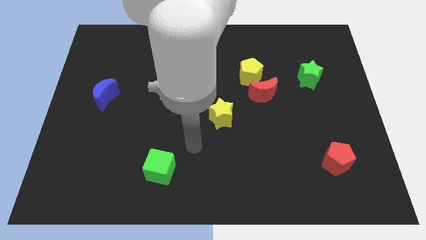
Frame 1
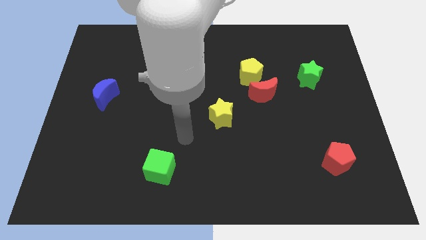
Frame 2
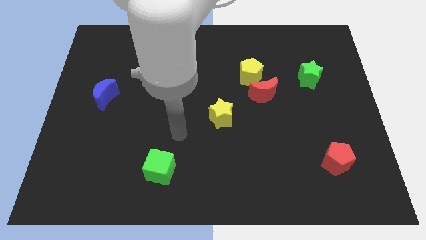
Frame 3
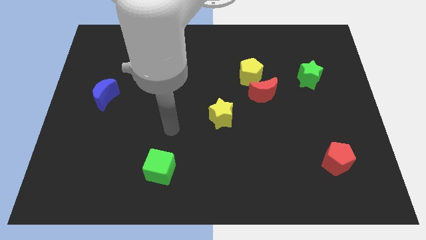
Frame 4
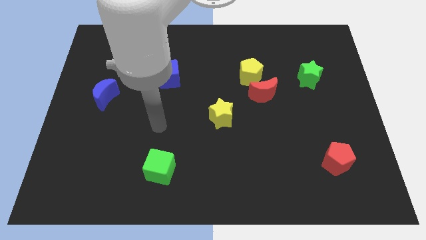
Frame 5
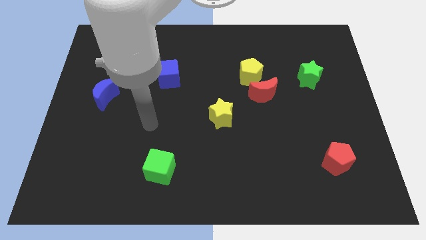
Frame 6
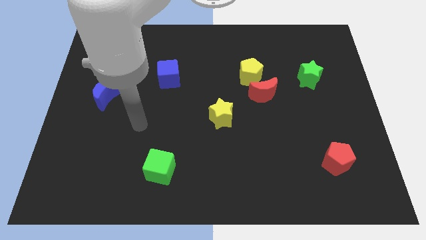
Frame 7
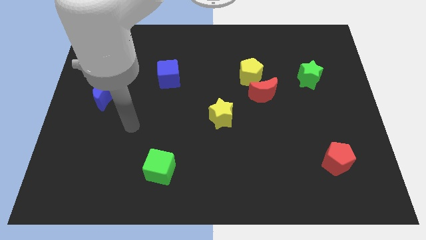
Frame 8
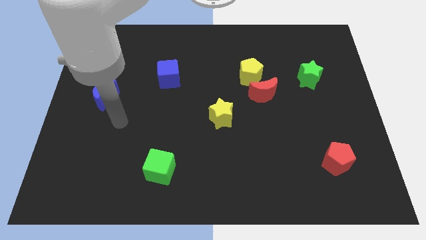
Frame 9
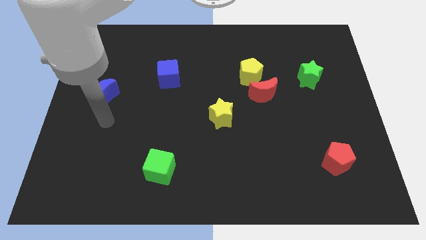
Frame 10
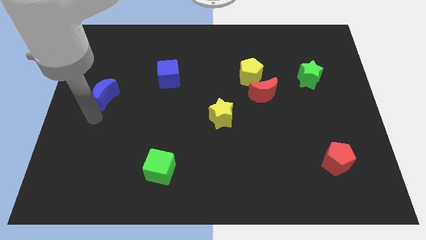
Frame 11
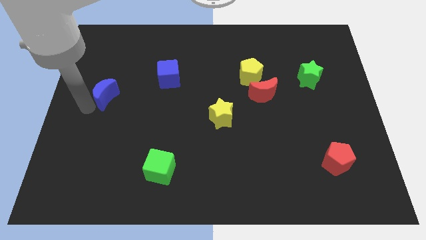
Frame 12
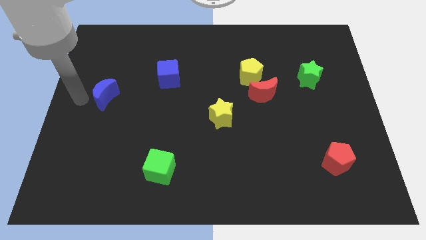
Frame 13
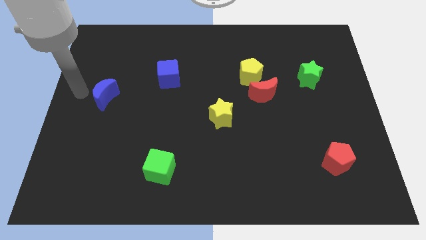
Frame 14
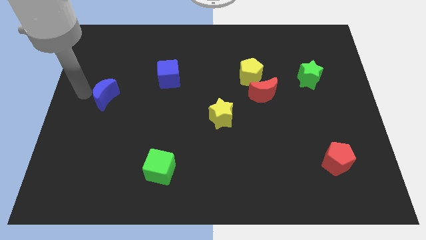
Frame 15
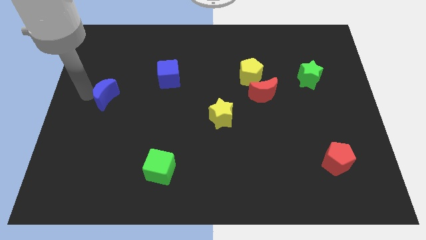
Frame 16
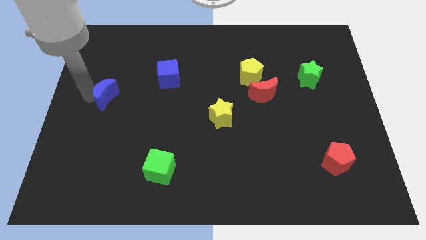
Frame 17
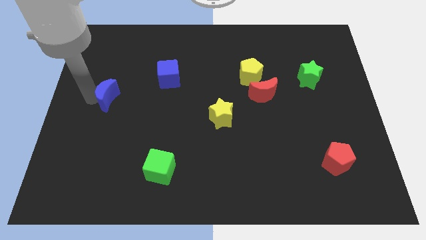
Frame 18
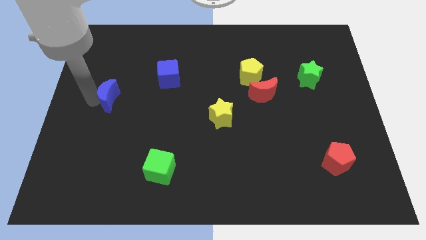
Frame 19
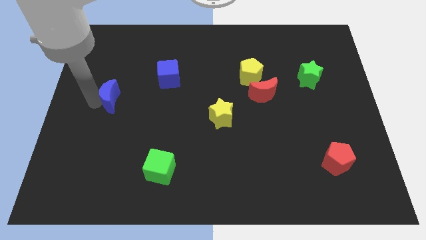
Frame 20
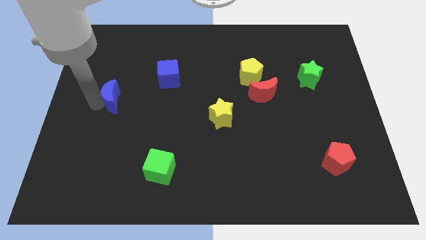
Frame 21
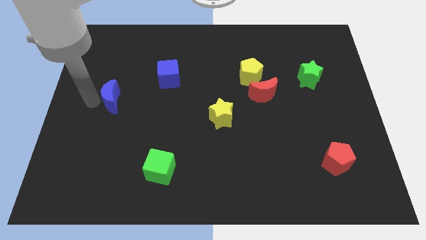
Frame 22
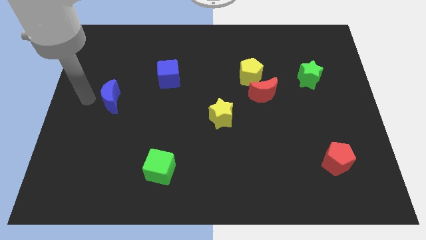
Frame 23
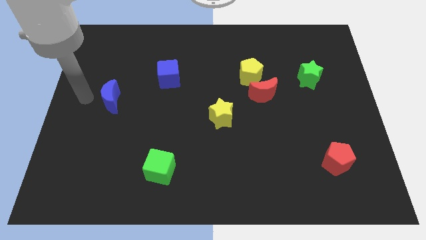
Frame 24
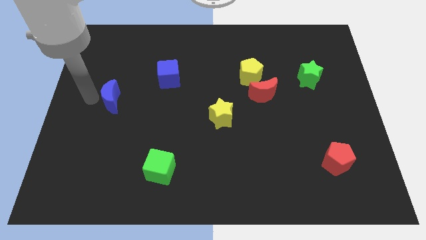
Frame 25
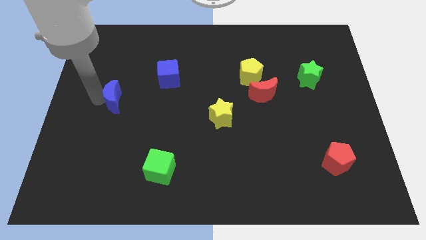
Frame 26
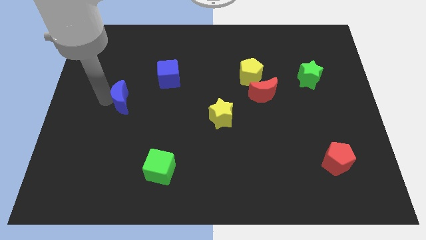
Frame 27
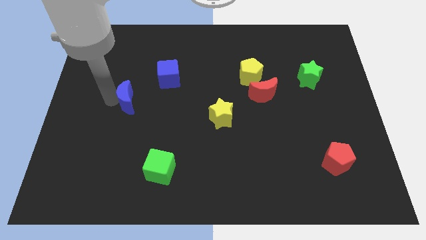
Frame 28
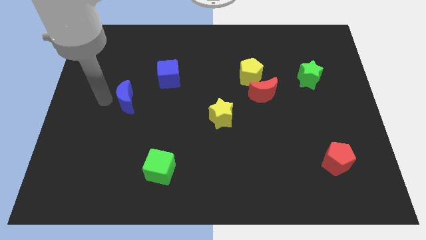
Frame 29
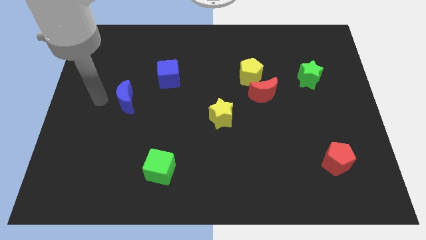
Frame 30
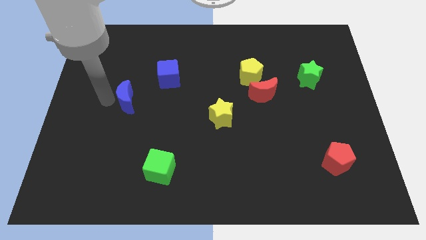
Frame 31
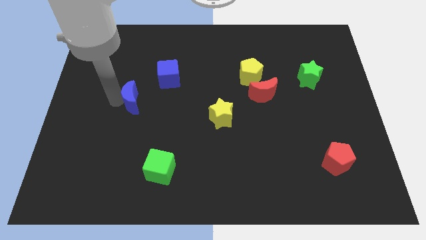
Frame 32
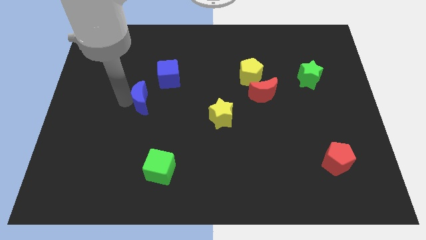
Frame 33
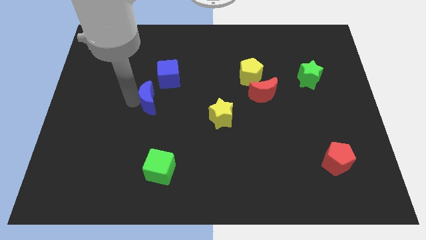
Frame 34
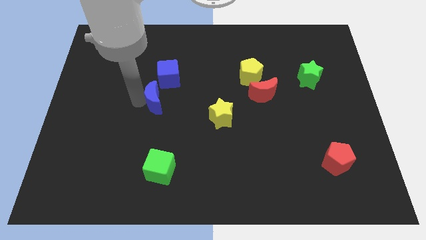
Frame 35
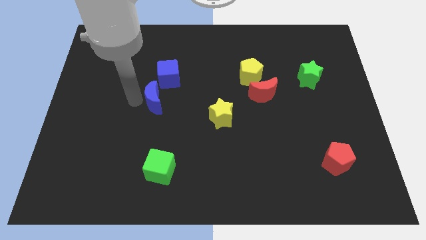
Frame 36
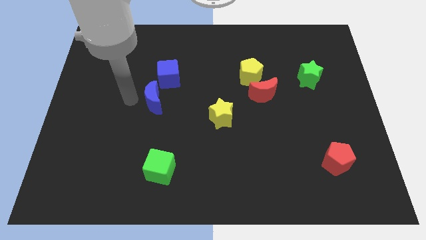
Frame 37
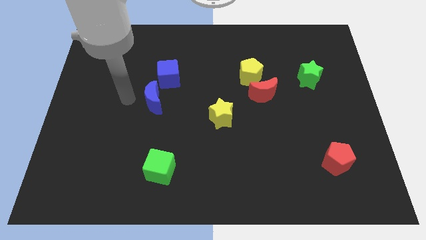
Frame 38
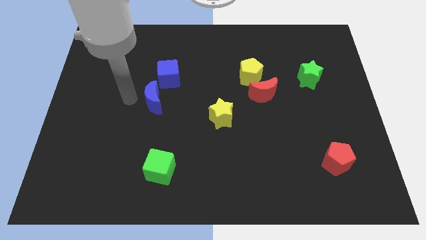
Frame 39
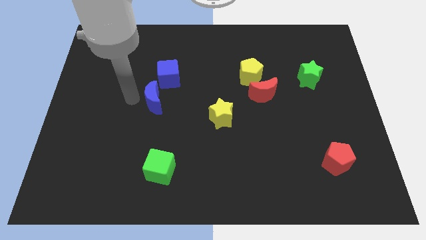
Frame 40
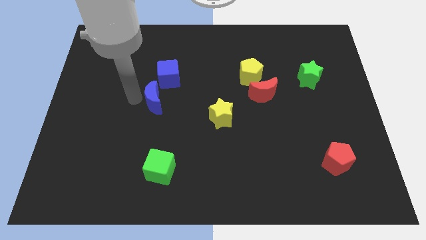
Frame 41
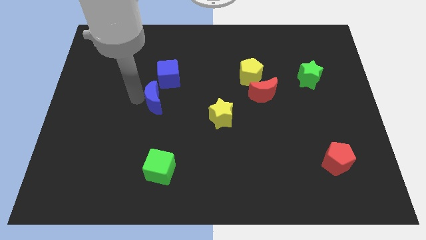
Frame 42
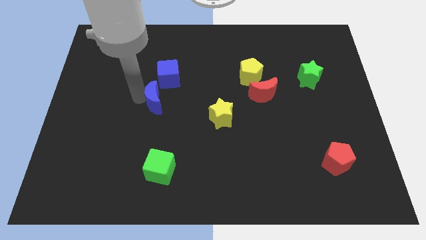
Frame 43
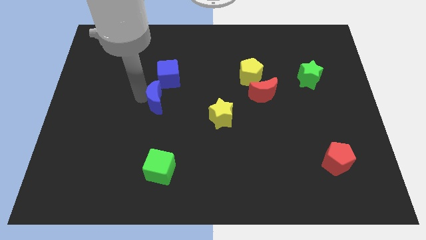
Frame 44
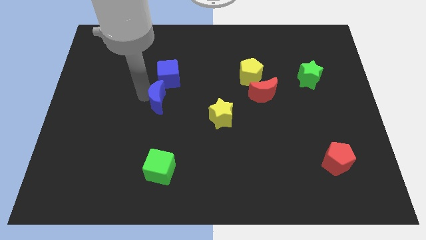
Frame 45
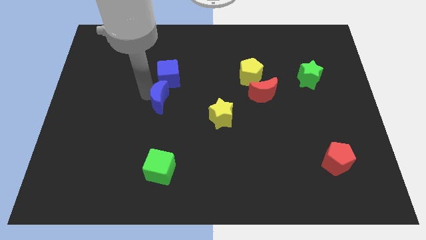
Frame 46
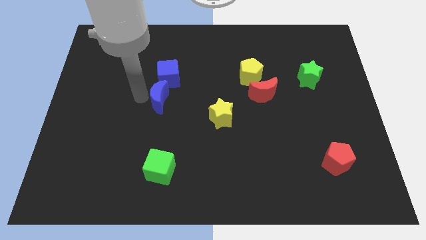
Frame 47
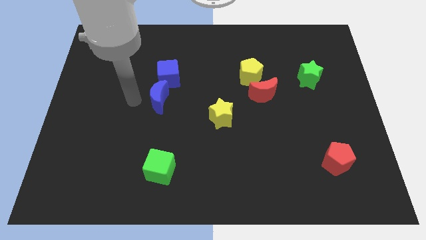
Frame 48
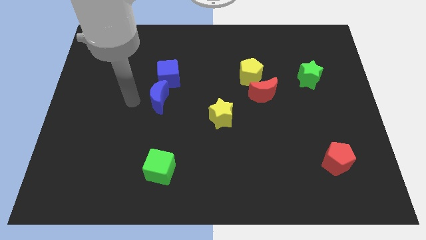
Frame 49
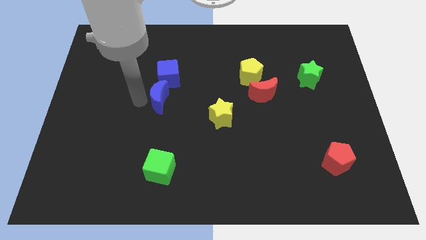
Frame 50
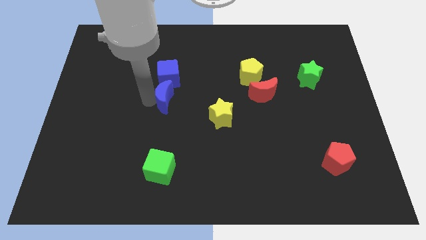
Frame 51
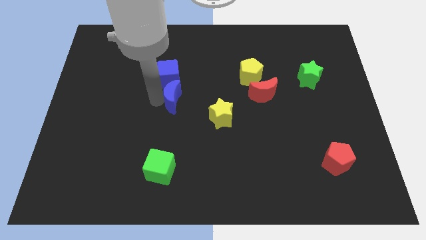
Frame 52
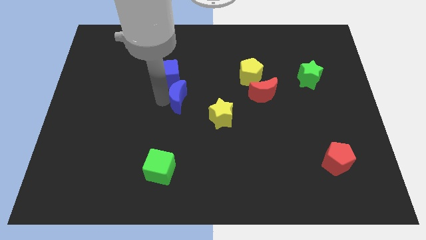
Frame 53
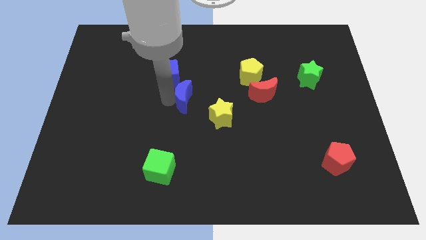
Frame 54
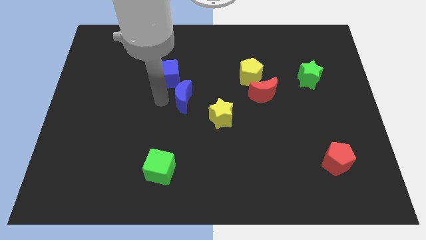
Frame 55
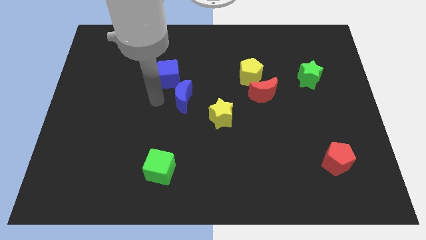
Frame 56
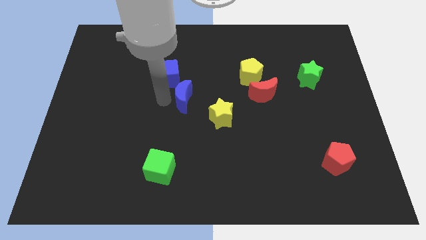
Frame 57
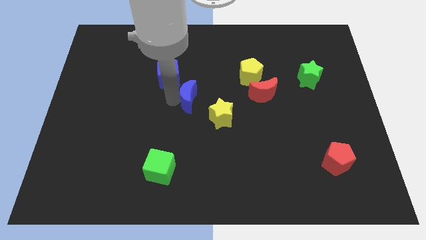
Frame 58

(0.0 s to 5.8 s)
push the blue moon to the right

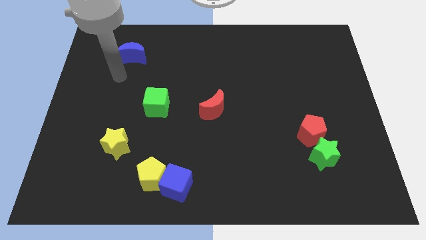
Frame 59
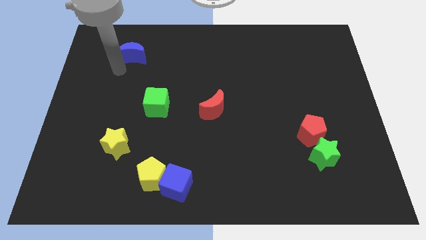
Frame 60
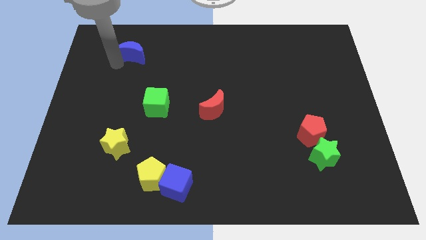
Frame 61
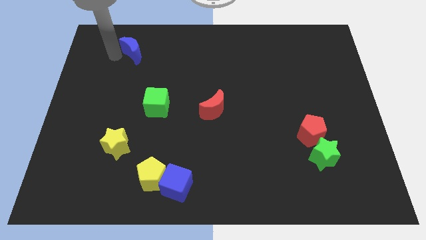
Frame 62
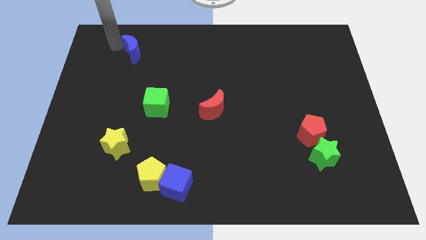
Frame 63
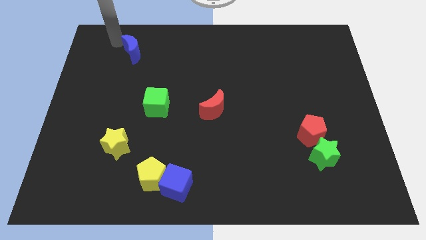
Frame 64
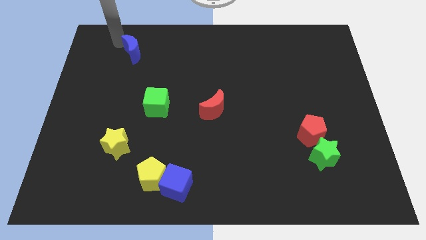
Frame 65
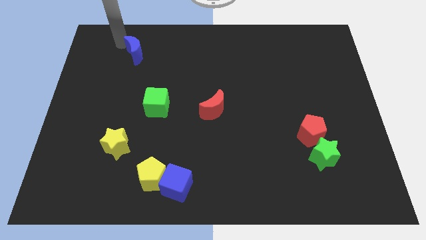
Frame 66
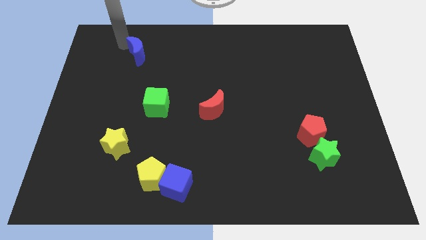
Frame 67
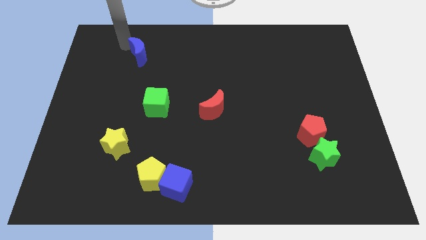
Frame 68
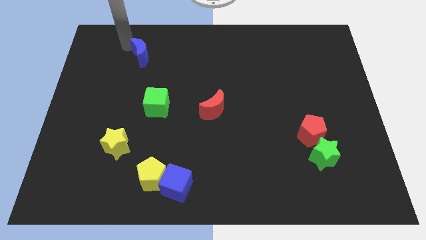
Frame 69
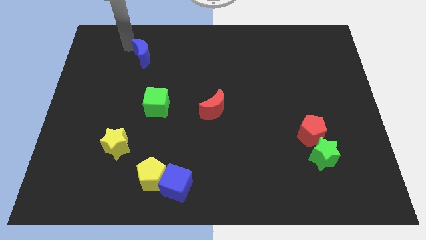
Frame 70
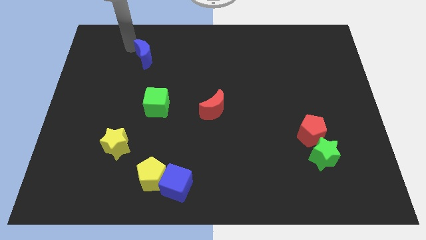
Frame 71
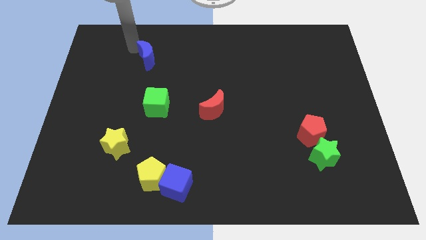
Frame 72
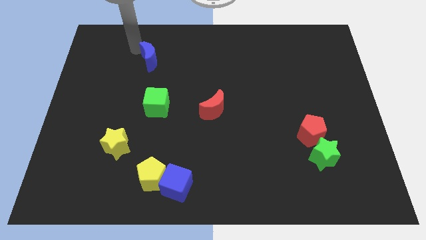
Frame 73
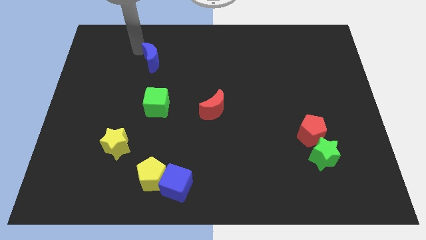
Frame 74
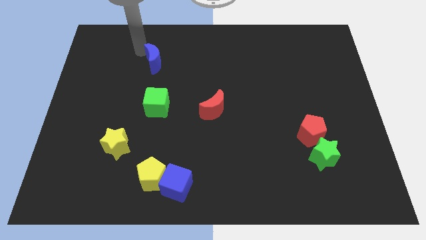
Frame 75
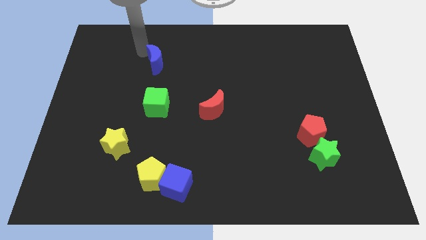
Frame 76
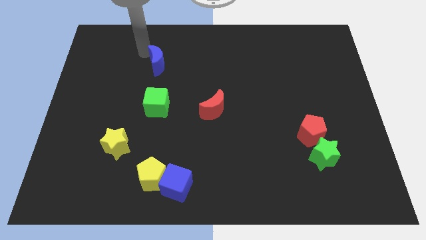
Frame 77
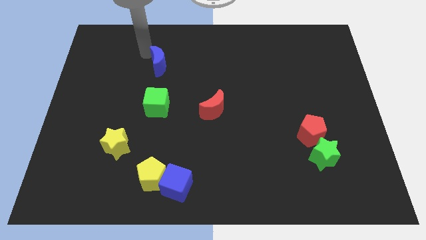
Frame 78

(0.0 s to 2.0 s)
move the blue moon downwards and to the right a bit
